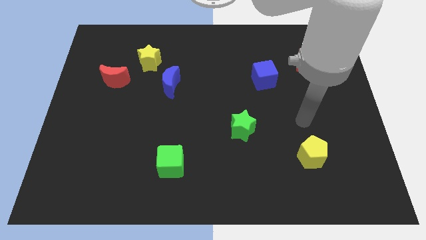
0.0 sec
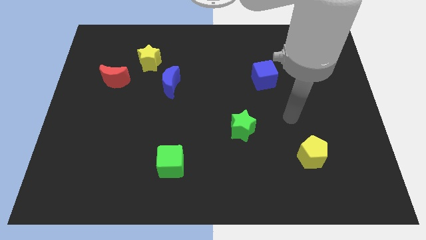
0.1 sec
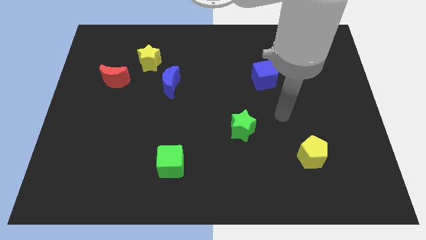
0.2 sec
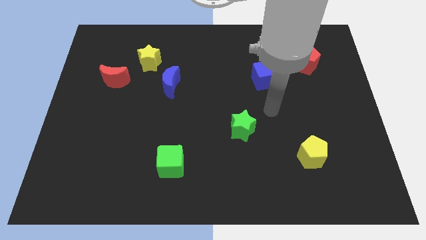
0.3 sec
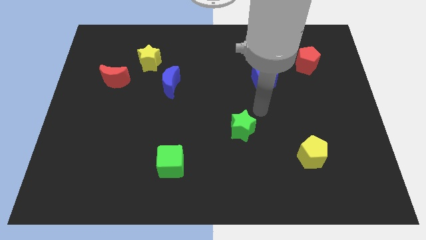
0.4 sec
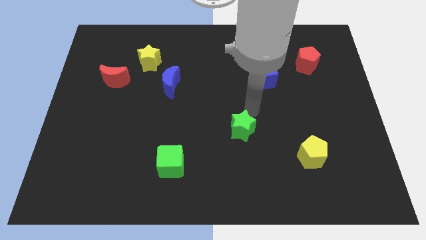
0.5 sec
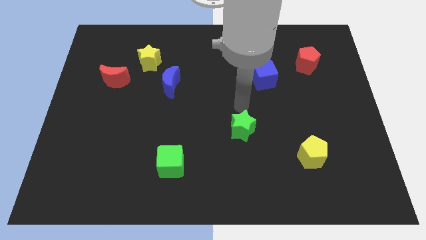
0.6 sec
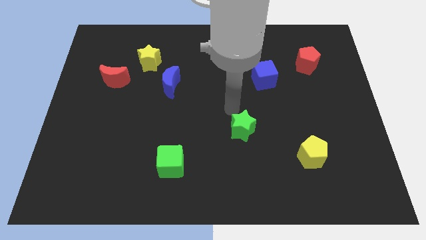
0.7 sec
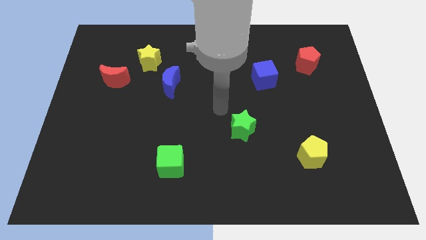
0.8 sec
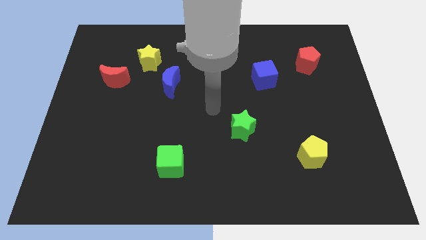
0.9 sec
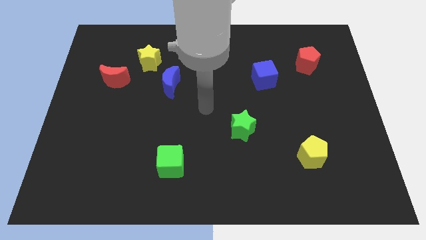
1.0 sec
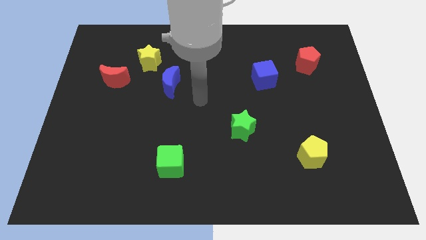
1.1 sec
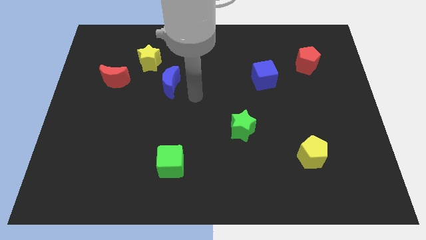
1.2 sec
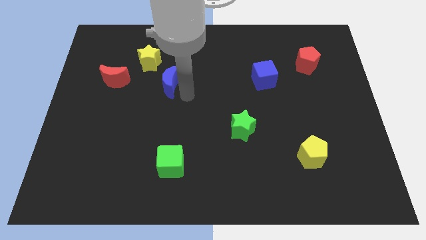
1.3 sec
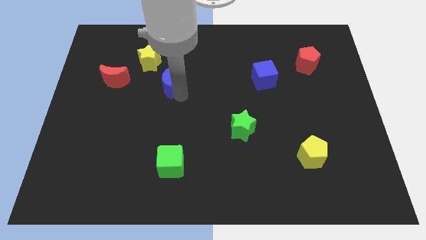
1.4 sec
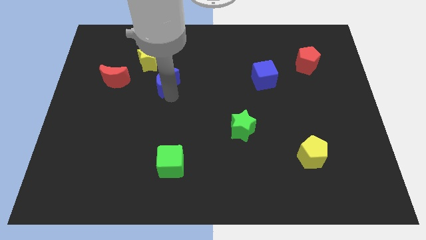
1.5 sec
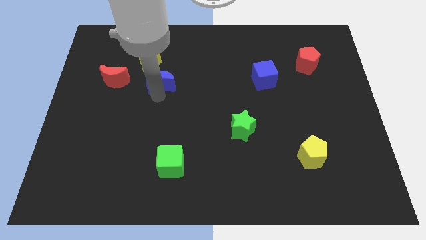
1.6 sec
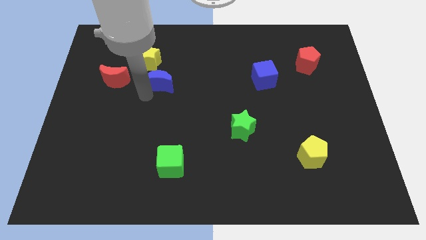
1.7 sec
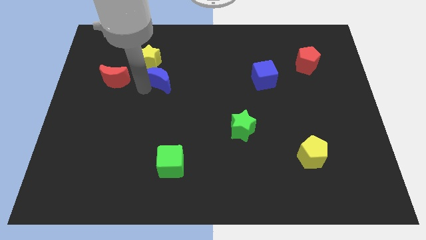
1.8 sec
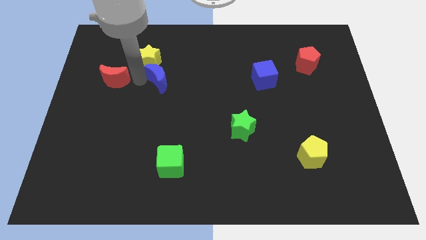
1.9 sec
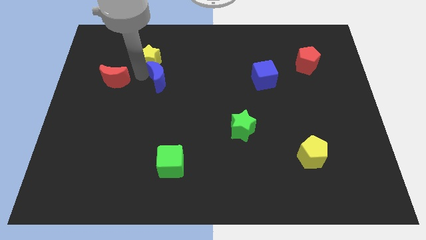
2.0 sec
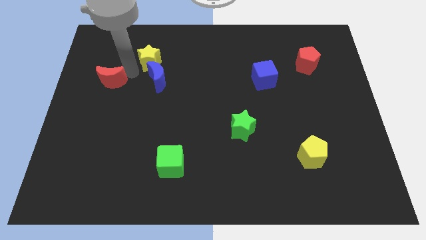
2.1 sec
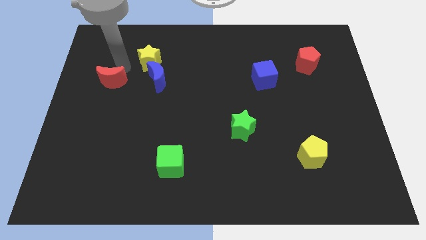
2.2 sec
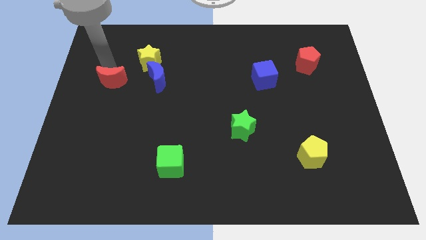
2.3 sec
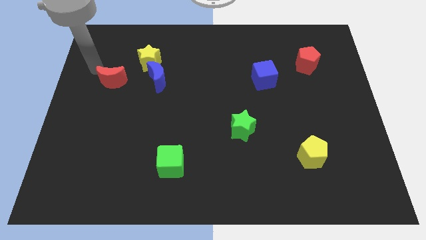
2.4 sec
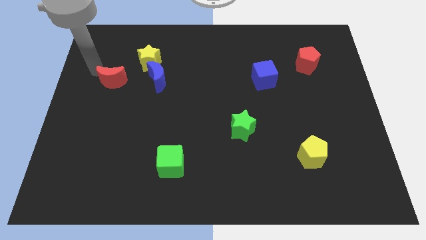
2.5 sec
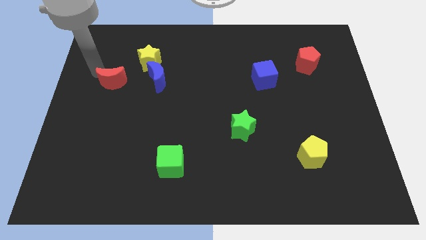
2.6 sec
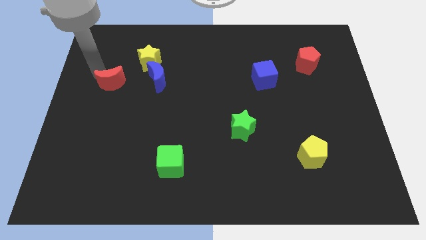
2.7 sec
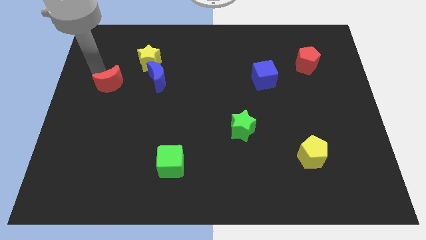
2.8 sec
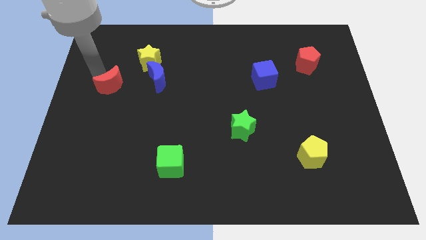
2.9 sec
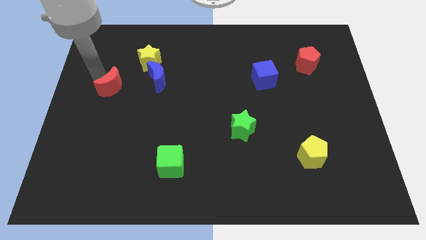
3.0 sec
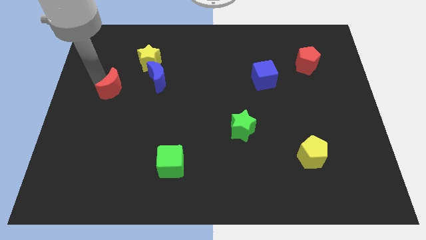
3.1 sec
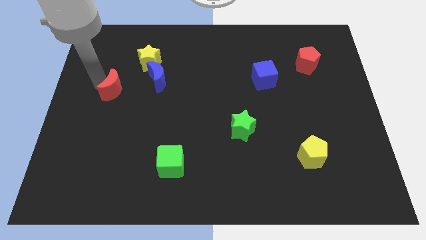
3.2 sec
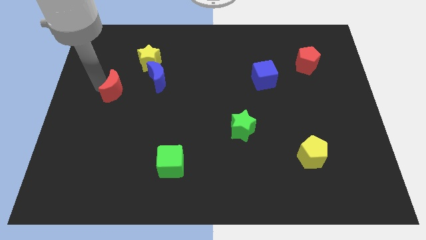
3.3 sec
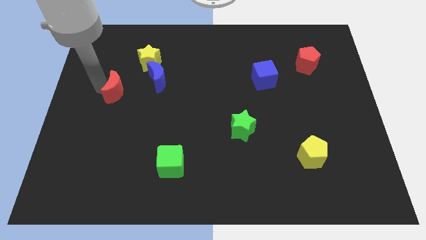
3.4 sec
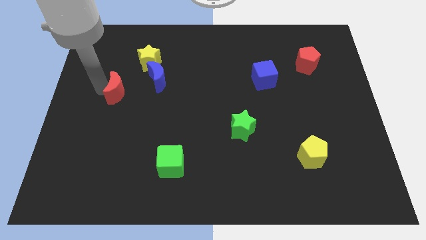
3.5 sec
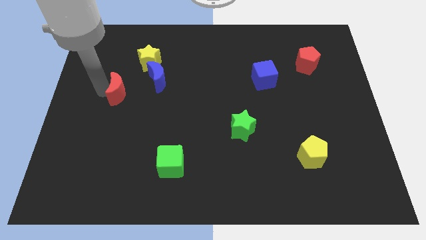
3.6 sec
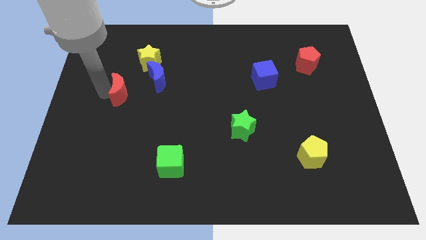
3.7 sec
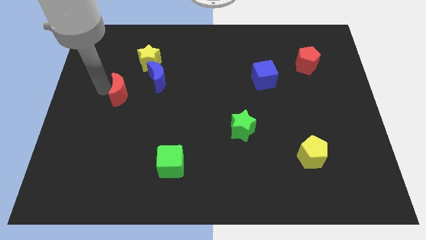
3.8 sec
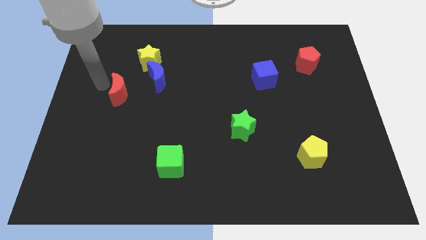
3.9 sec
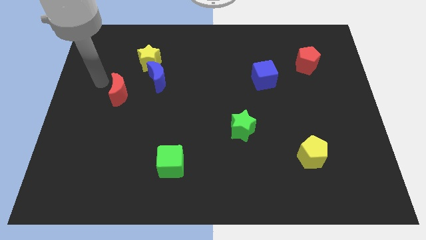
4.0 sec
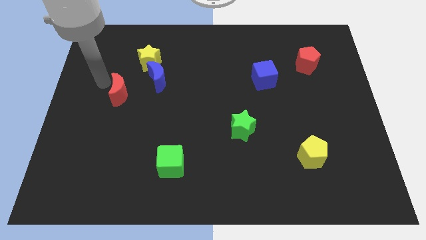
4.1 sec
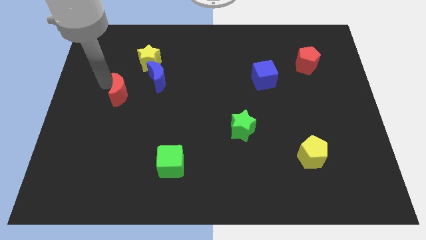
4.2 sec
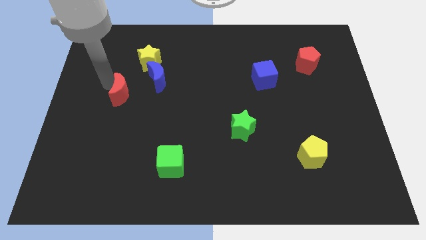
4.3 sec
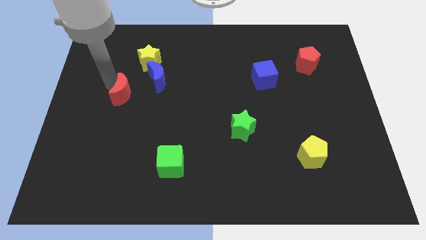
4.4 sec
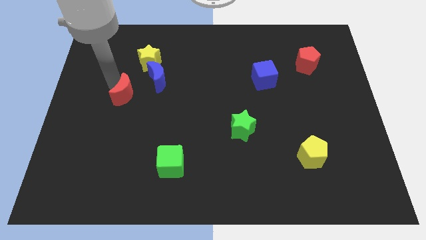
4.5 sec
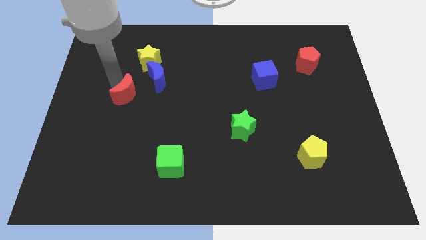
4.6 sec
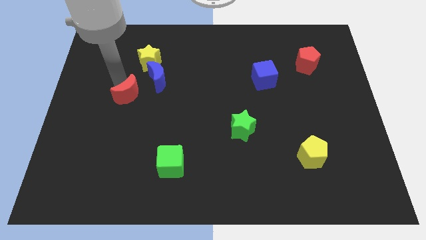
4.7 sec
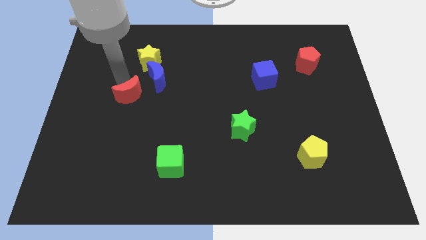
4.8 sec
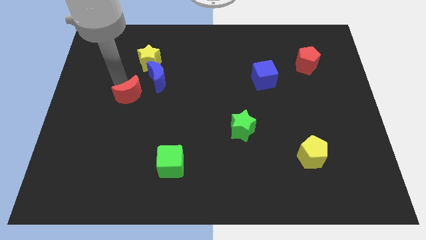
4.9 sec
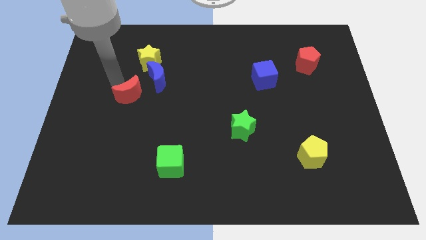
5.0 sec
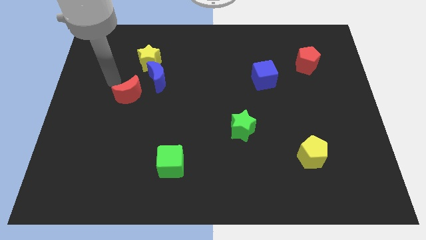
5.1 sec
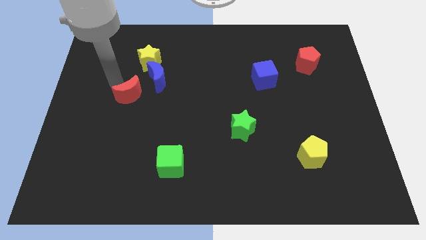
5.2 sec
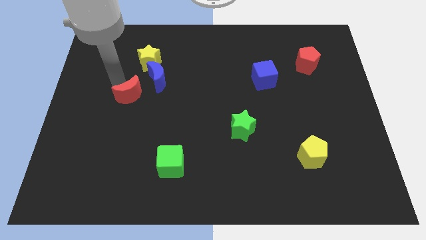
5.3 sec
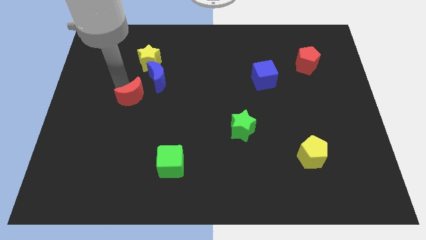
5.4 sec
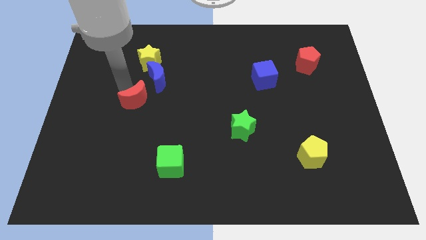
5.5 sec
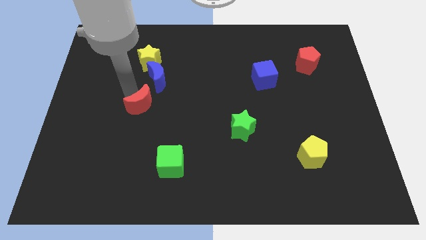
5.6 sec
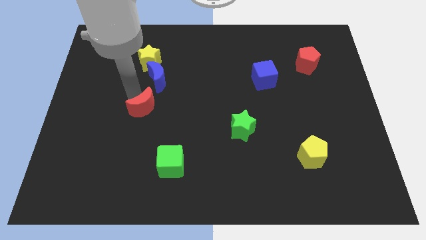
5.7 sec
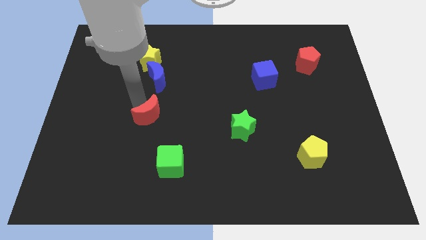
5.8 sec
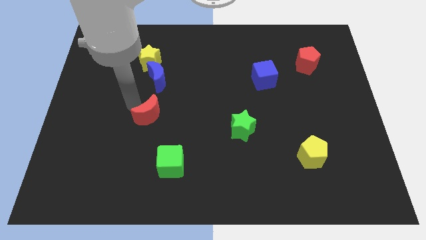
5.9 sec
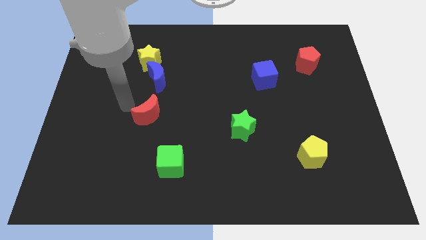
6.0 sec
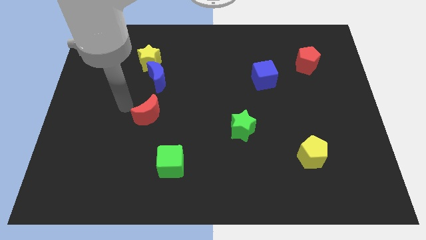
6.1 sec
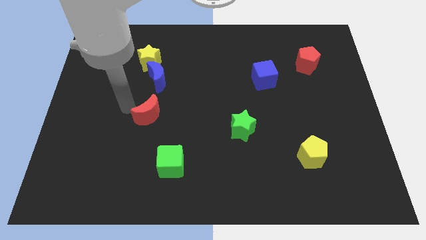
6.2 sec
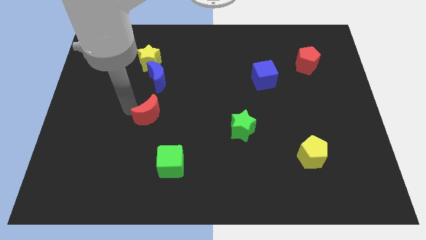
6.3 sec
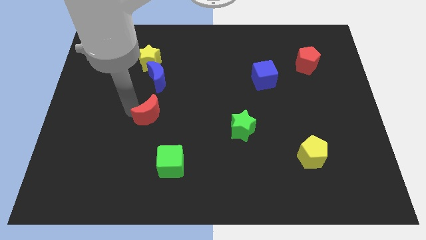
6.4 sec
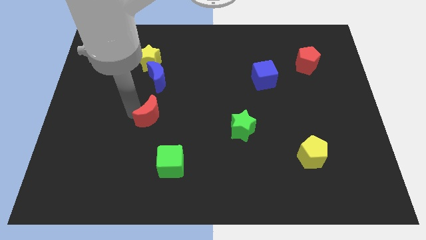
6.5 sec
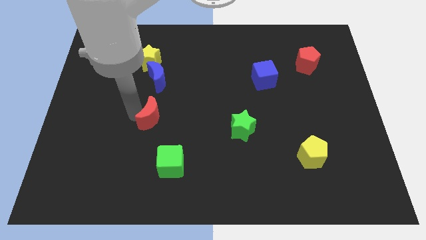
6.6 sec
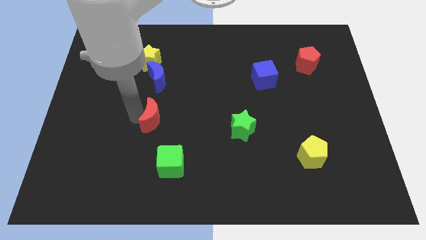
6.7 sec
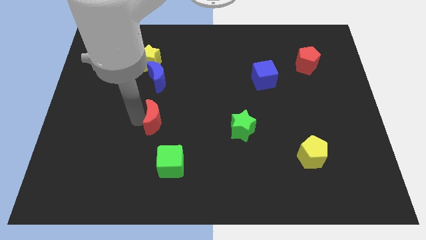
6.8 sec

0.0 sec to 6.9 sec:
move the red moon above the green cube
